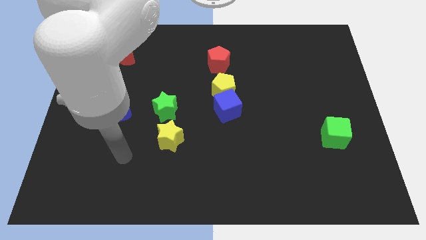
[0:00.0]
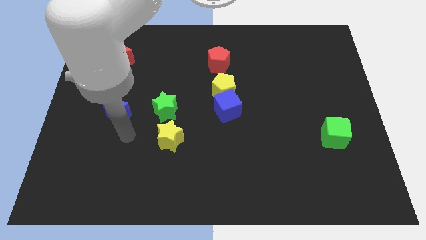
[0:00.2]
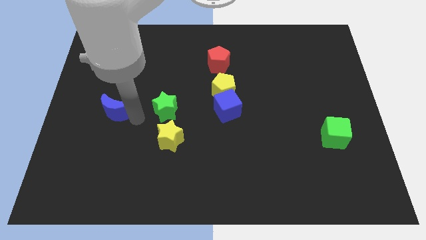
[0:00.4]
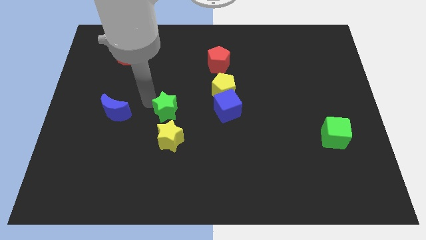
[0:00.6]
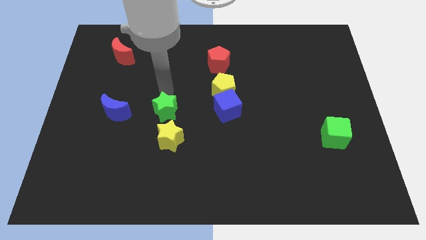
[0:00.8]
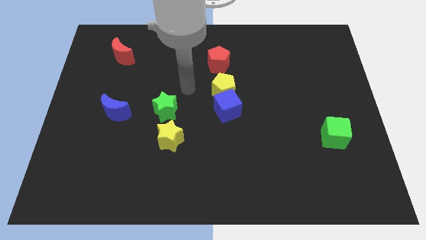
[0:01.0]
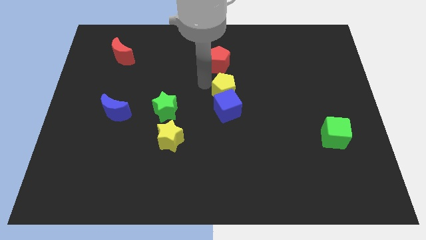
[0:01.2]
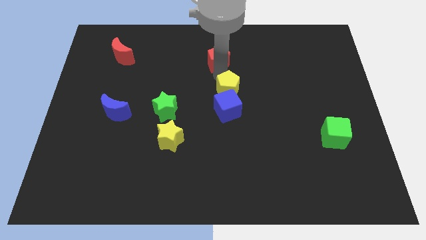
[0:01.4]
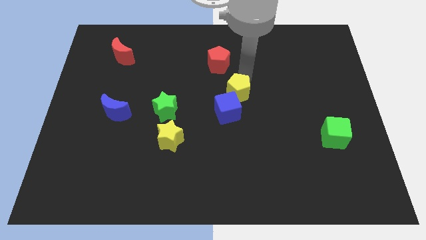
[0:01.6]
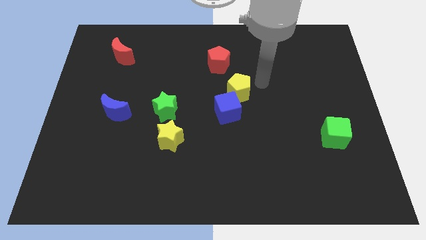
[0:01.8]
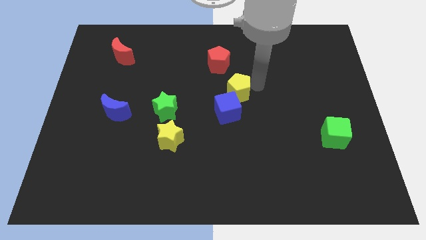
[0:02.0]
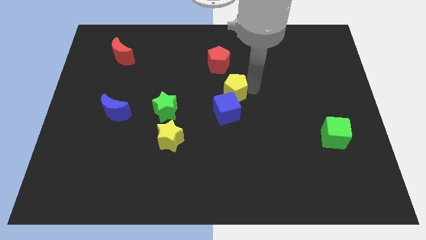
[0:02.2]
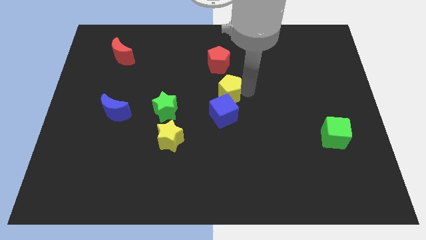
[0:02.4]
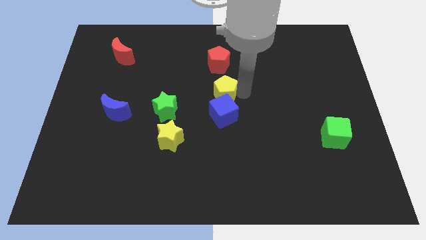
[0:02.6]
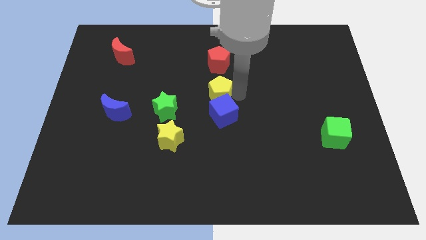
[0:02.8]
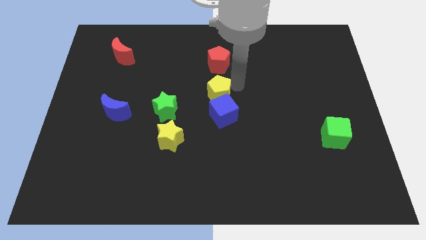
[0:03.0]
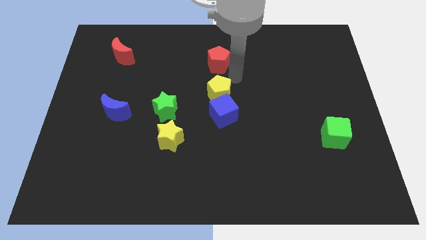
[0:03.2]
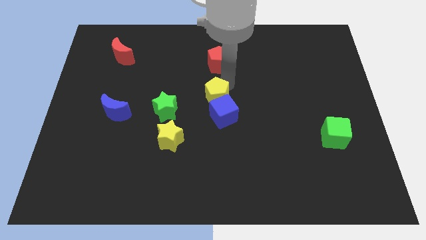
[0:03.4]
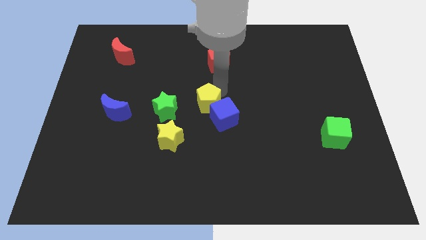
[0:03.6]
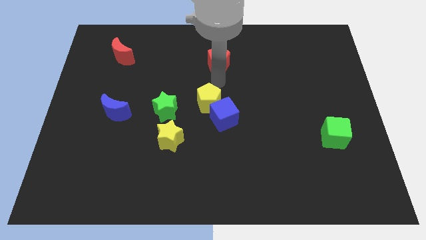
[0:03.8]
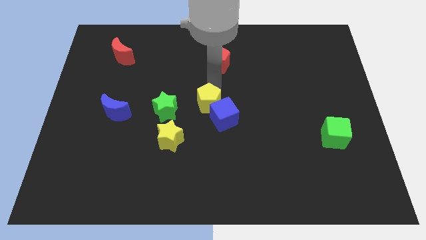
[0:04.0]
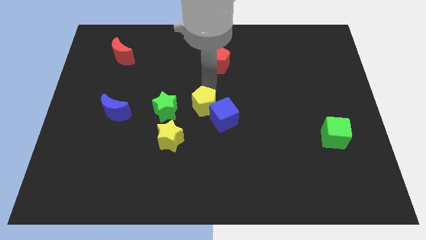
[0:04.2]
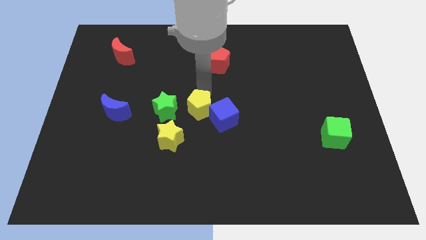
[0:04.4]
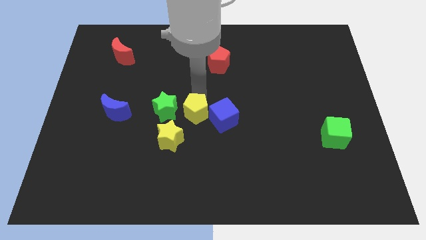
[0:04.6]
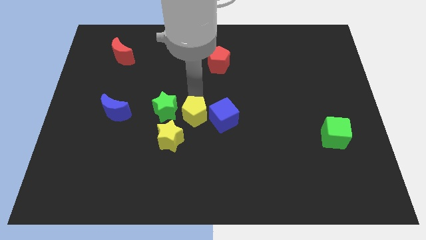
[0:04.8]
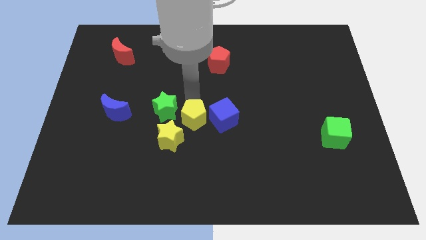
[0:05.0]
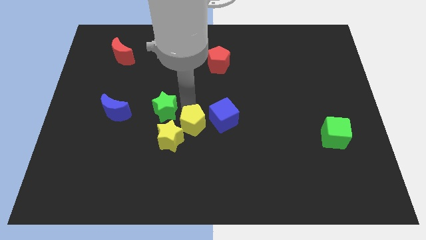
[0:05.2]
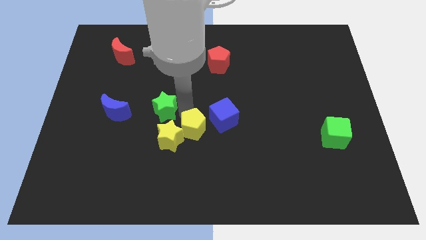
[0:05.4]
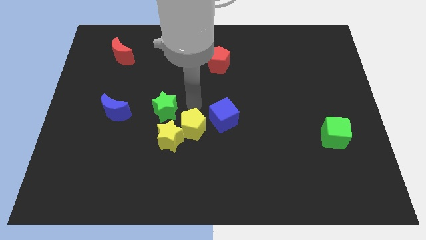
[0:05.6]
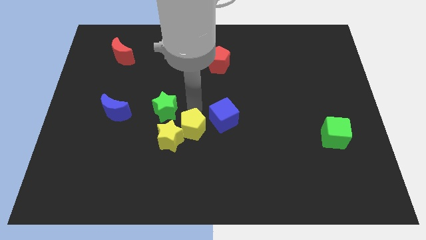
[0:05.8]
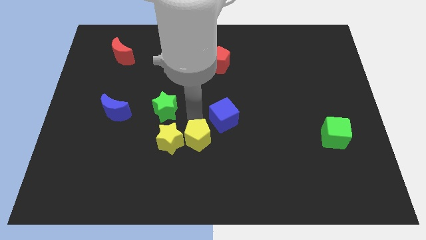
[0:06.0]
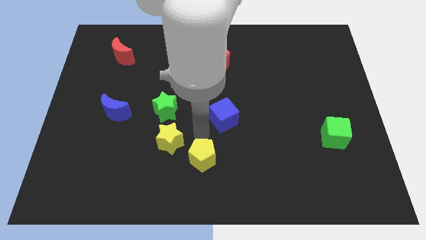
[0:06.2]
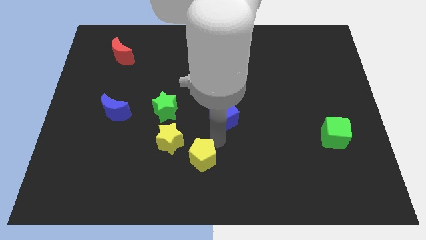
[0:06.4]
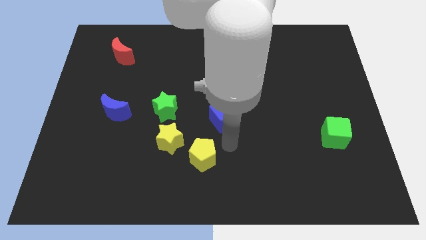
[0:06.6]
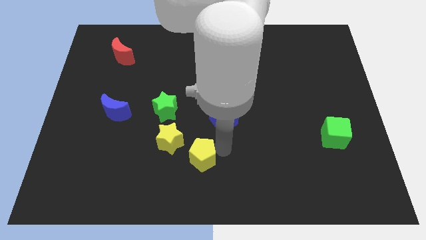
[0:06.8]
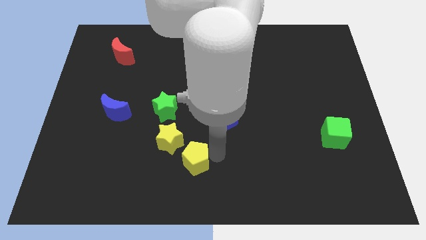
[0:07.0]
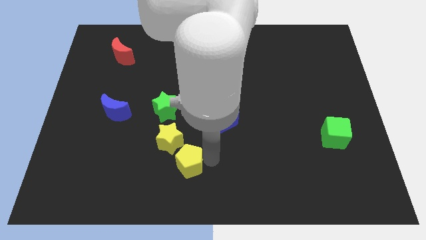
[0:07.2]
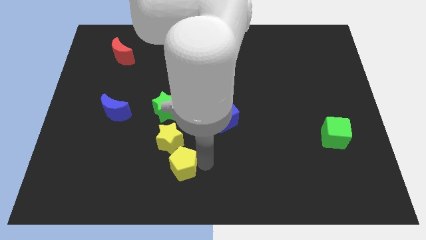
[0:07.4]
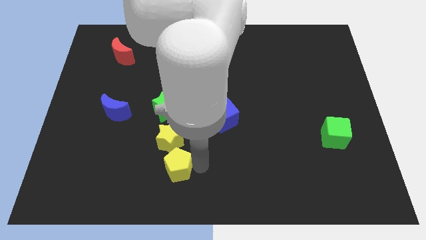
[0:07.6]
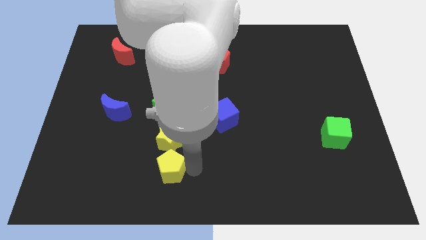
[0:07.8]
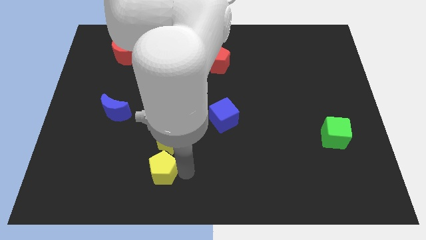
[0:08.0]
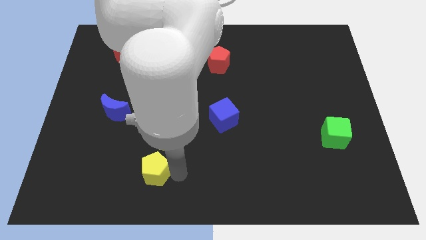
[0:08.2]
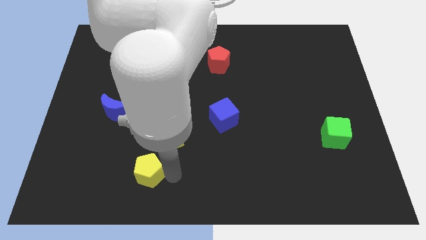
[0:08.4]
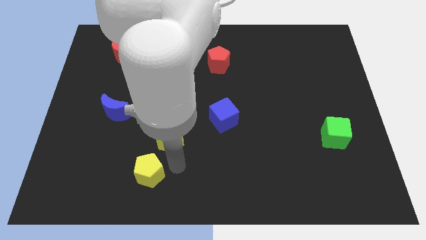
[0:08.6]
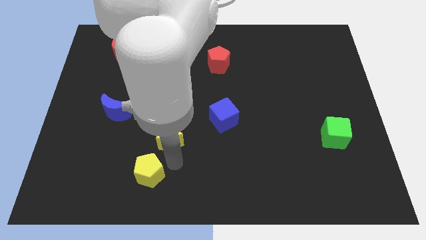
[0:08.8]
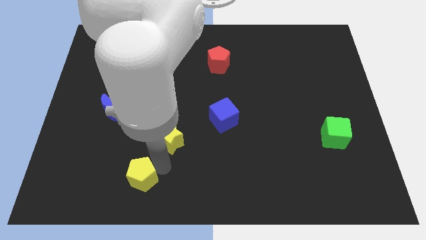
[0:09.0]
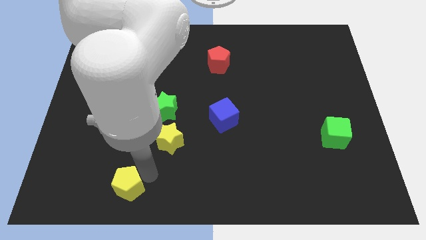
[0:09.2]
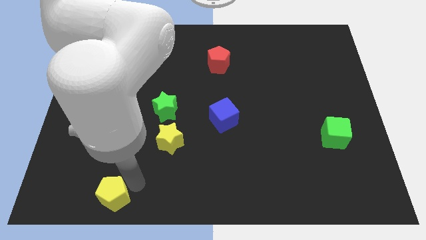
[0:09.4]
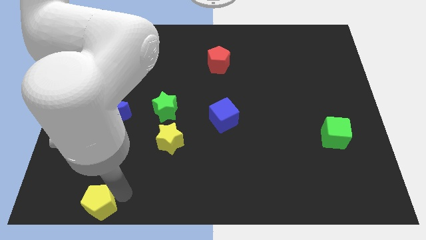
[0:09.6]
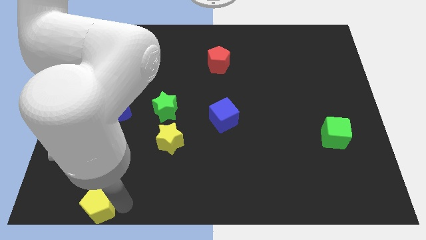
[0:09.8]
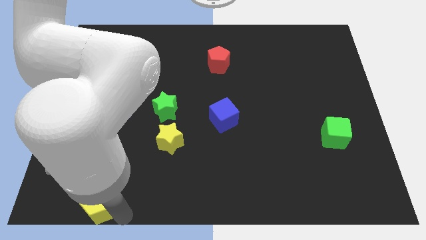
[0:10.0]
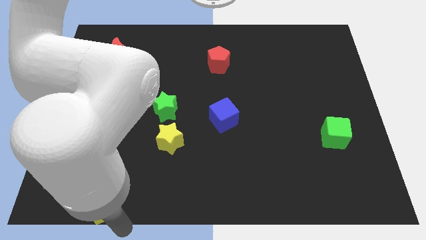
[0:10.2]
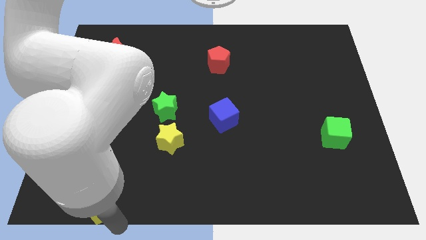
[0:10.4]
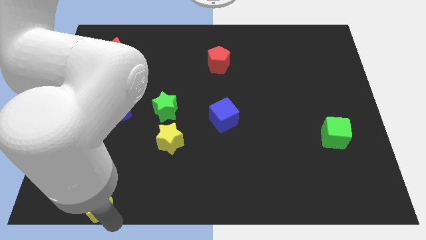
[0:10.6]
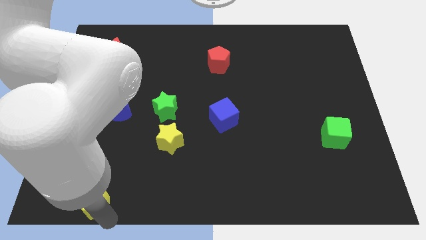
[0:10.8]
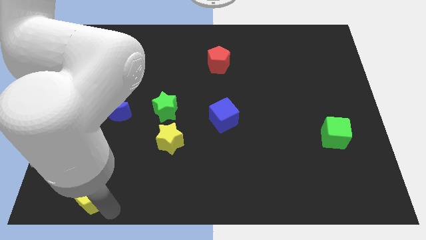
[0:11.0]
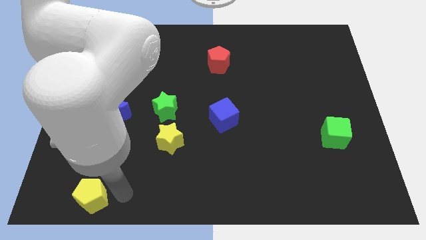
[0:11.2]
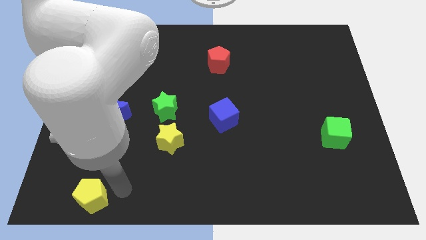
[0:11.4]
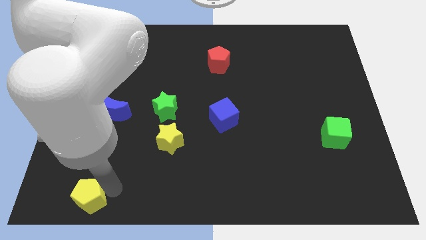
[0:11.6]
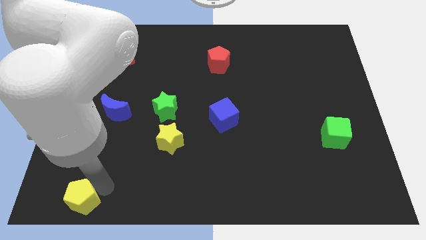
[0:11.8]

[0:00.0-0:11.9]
put the yellow pentagon to the lower left corner
